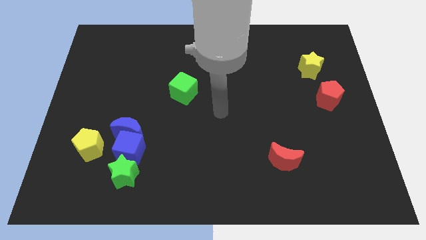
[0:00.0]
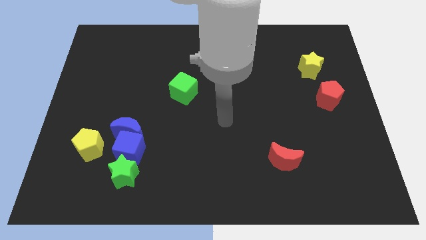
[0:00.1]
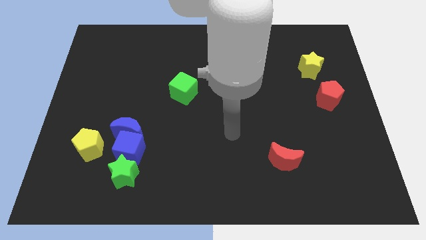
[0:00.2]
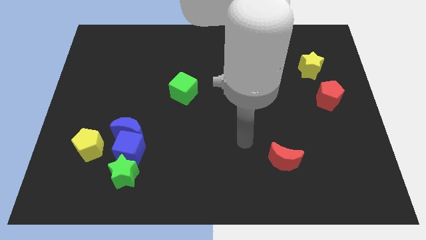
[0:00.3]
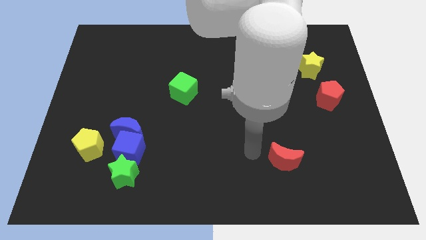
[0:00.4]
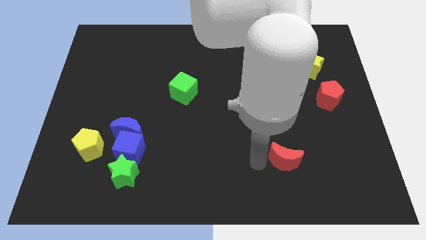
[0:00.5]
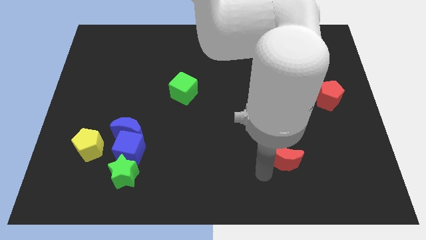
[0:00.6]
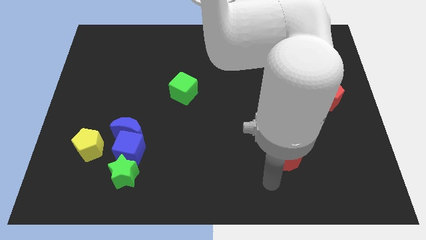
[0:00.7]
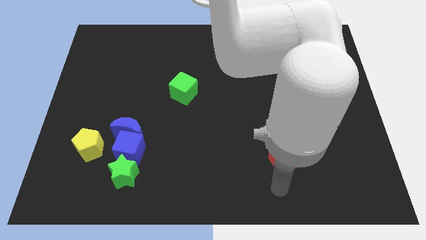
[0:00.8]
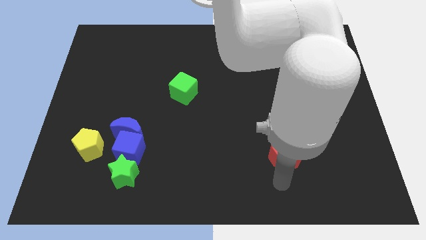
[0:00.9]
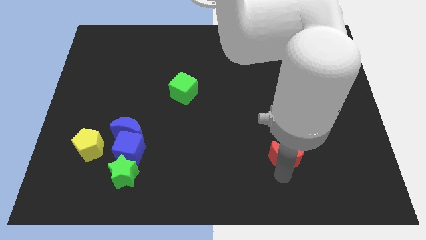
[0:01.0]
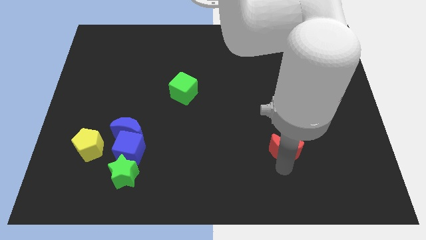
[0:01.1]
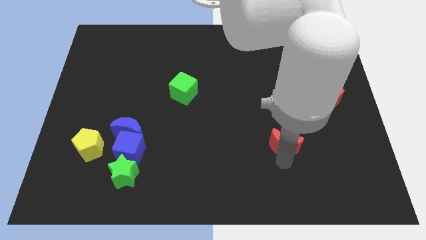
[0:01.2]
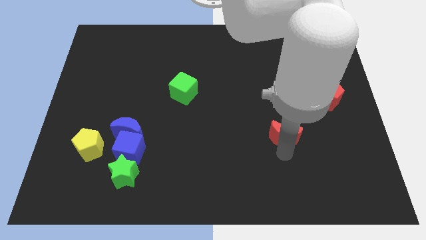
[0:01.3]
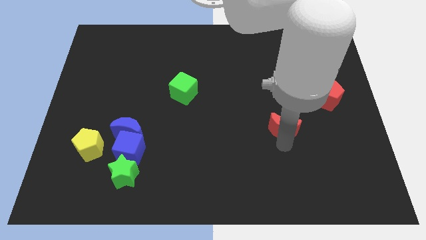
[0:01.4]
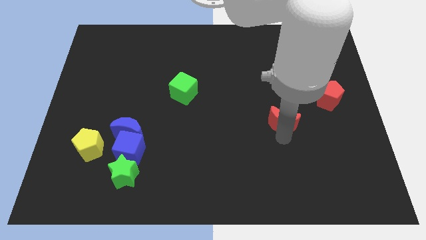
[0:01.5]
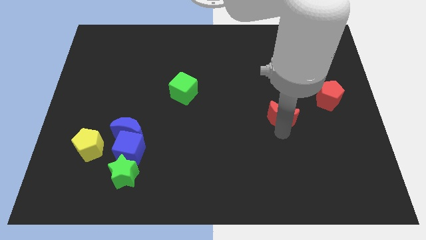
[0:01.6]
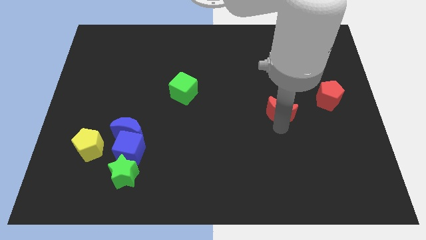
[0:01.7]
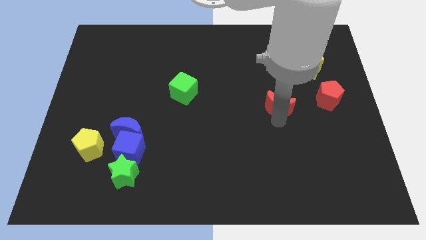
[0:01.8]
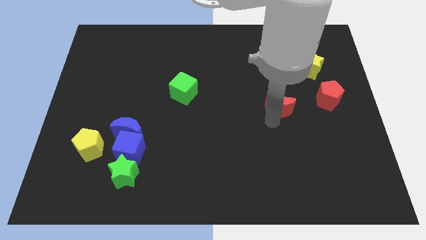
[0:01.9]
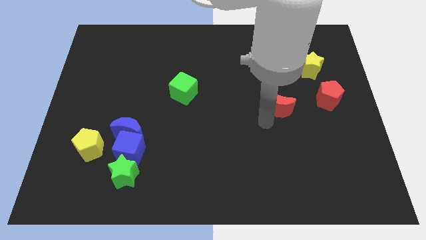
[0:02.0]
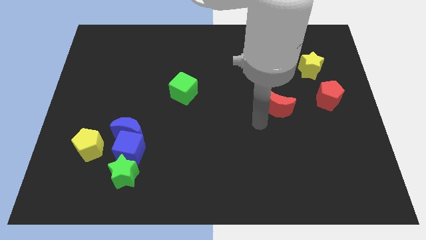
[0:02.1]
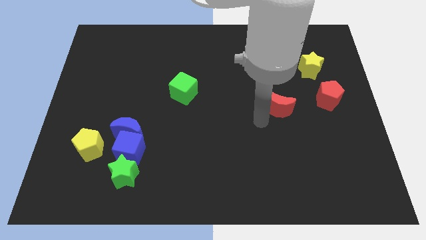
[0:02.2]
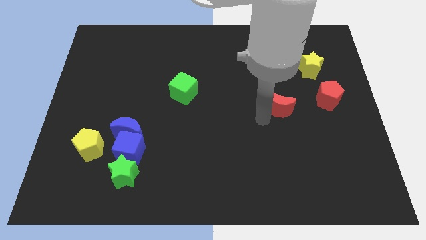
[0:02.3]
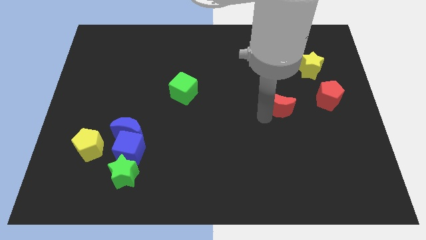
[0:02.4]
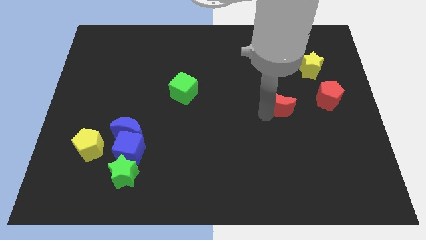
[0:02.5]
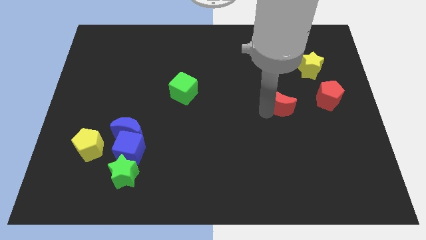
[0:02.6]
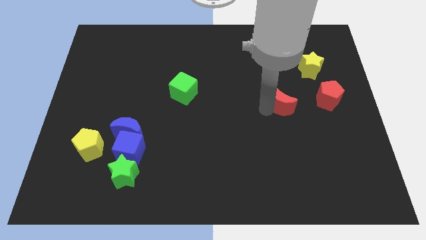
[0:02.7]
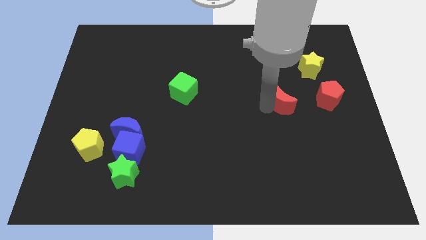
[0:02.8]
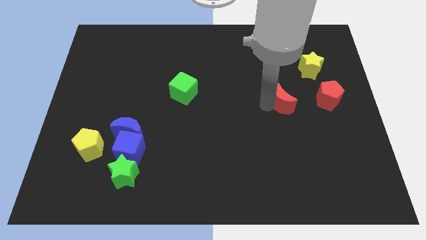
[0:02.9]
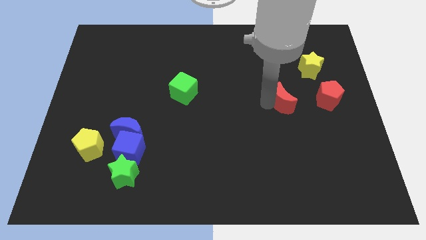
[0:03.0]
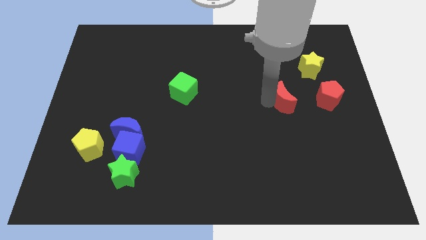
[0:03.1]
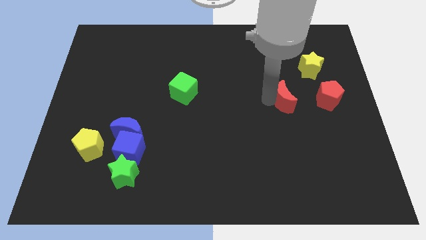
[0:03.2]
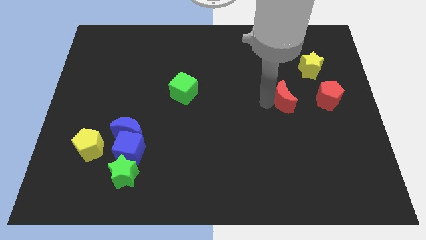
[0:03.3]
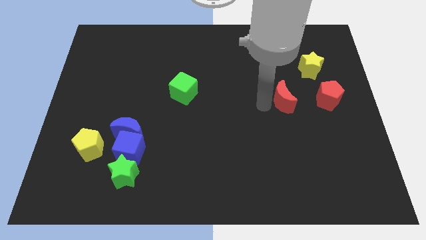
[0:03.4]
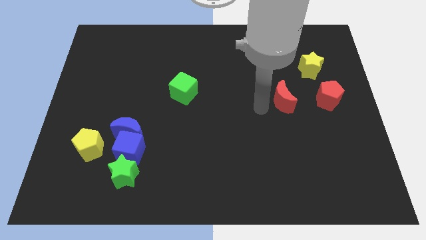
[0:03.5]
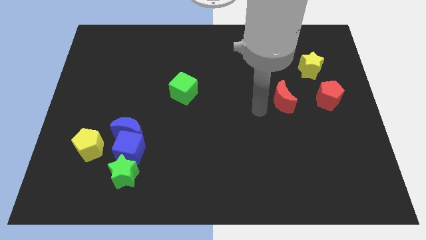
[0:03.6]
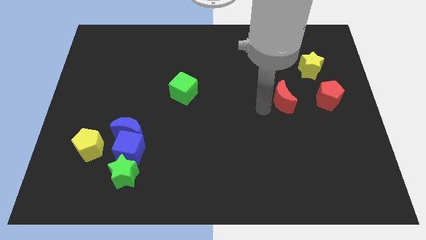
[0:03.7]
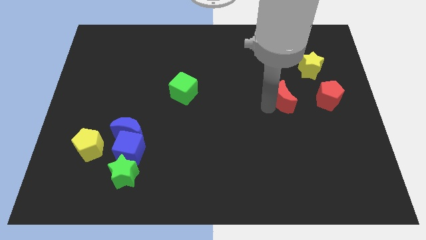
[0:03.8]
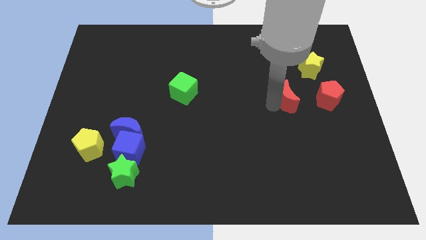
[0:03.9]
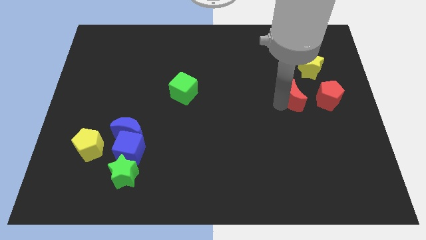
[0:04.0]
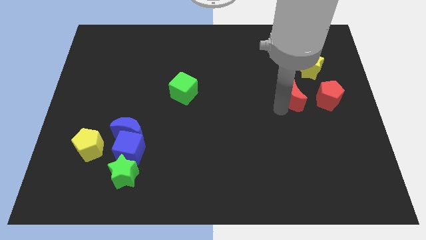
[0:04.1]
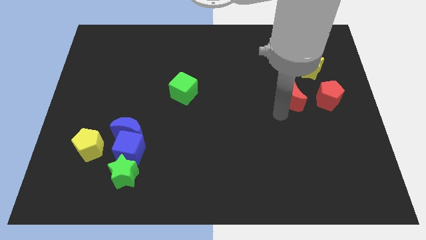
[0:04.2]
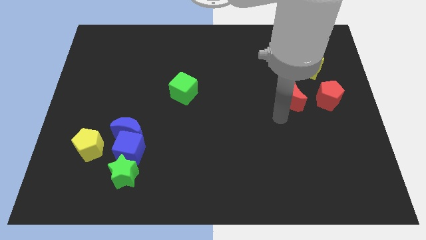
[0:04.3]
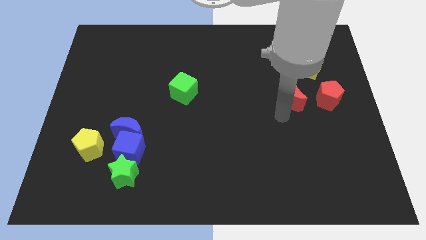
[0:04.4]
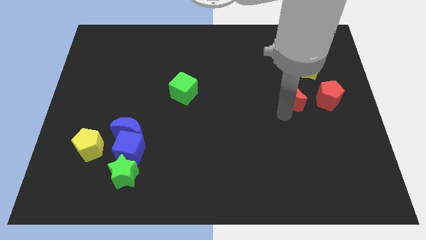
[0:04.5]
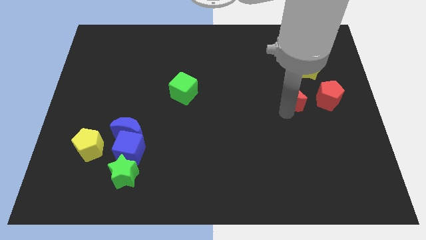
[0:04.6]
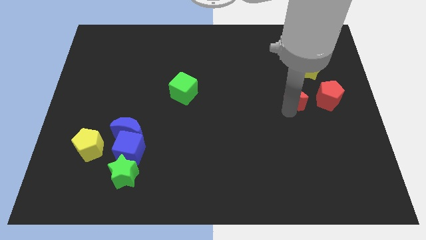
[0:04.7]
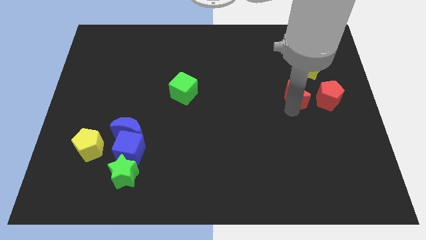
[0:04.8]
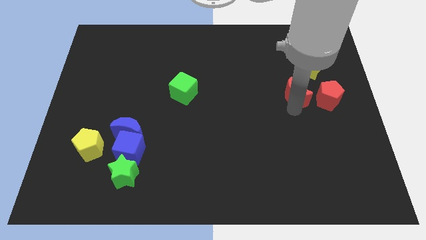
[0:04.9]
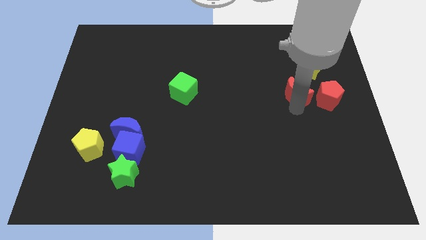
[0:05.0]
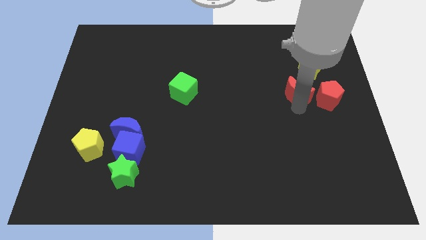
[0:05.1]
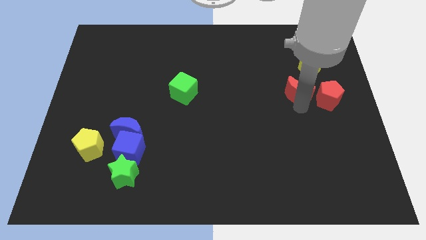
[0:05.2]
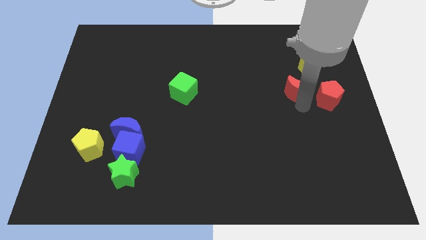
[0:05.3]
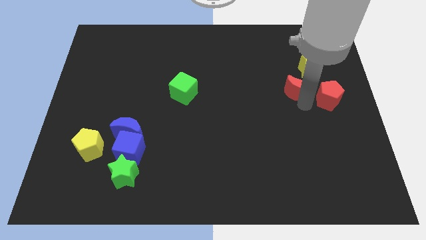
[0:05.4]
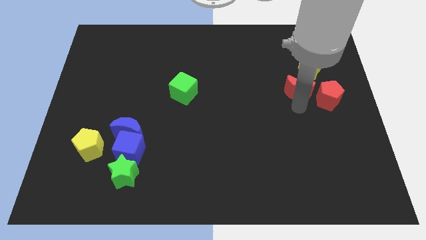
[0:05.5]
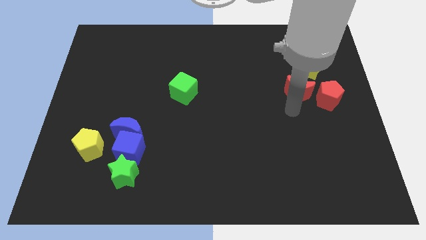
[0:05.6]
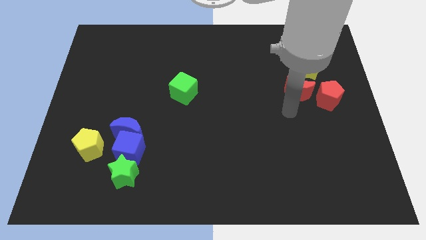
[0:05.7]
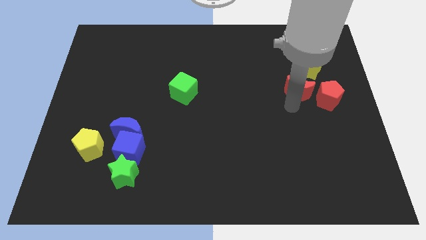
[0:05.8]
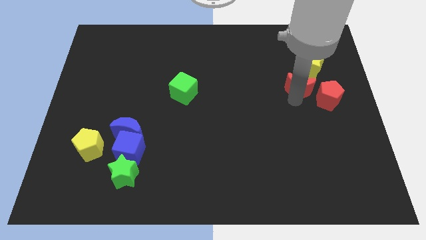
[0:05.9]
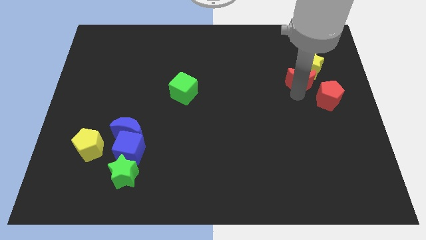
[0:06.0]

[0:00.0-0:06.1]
slide the red moon next to the yellow star

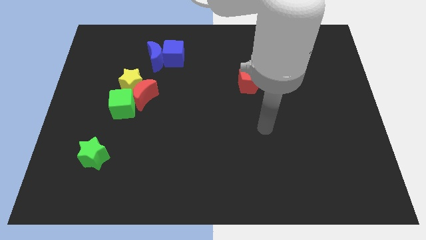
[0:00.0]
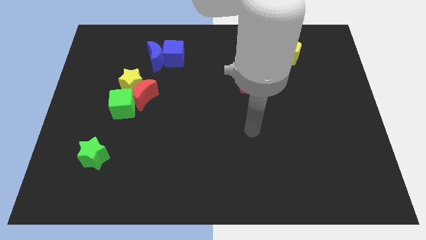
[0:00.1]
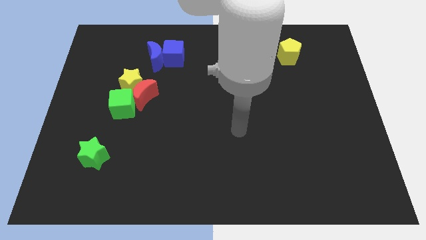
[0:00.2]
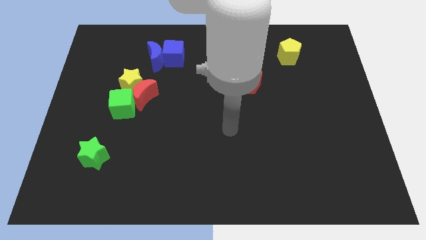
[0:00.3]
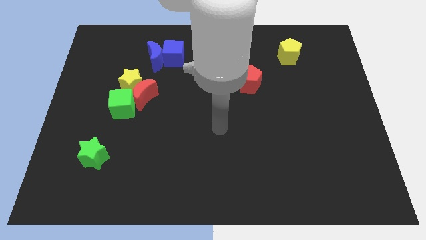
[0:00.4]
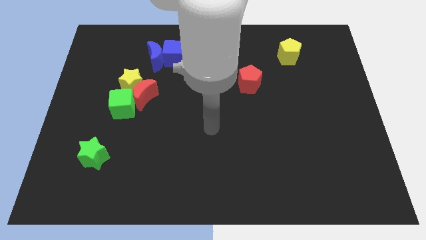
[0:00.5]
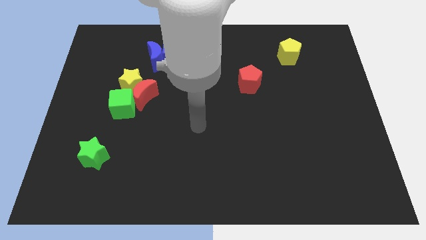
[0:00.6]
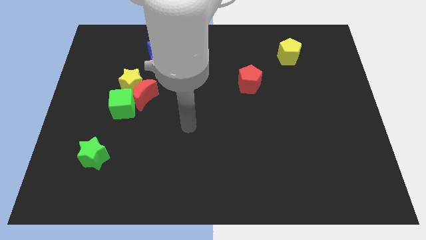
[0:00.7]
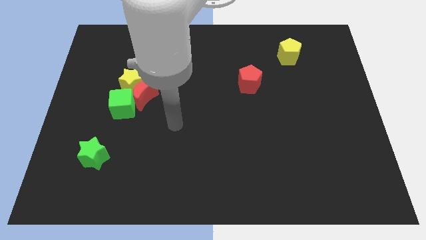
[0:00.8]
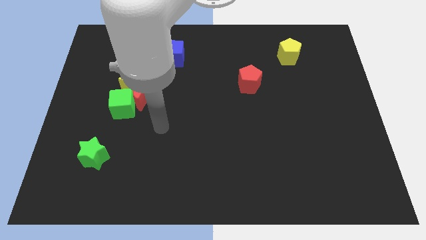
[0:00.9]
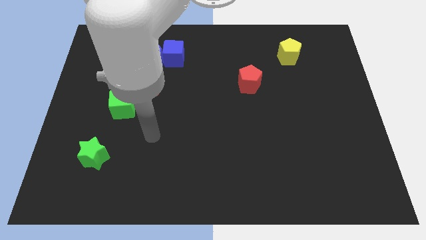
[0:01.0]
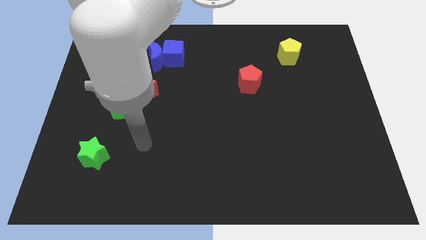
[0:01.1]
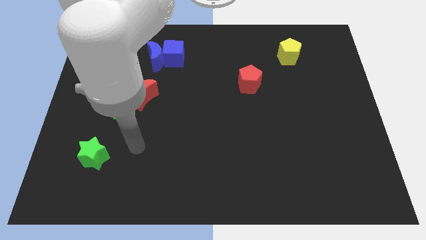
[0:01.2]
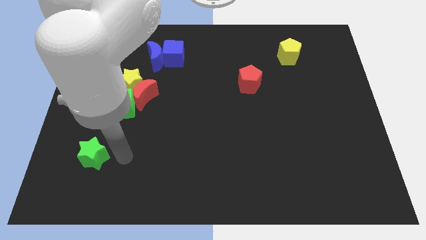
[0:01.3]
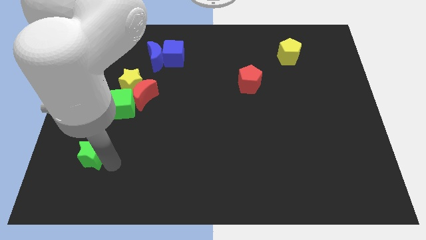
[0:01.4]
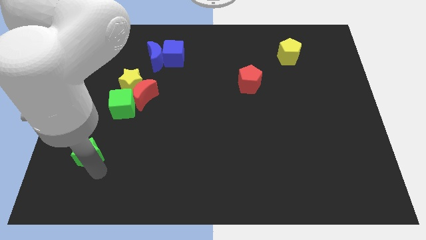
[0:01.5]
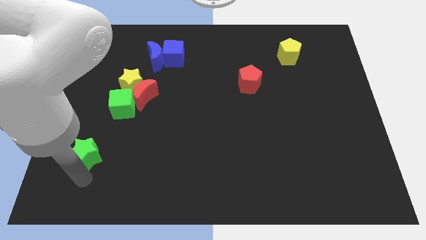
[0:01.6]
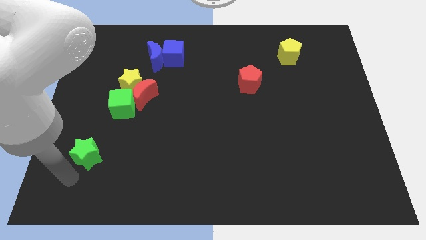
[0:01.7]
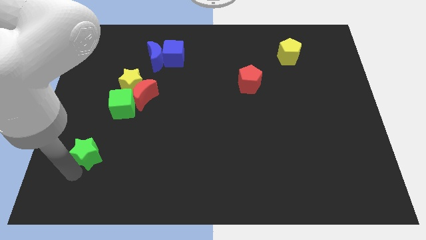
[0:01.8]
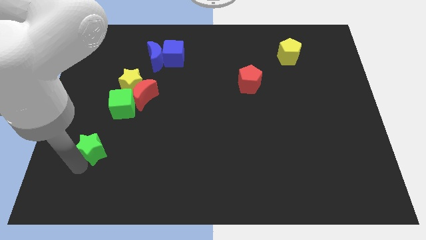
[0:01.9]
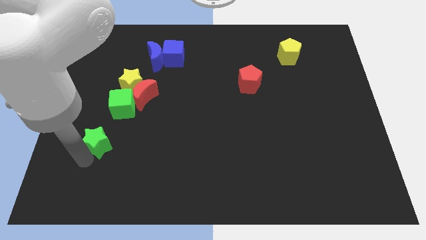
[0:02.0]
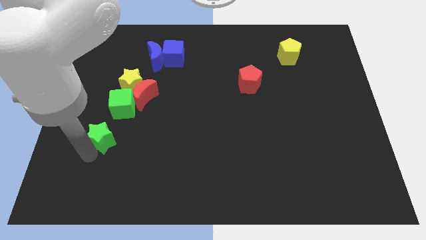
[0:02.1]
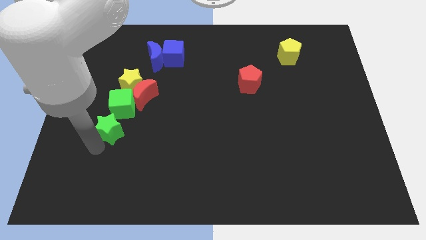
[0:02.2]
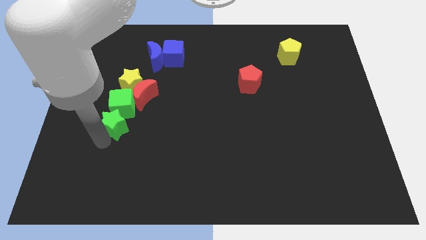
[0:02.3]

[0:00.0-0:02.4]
slide the green star close to the green cube
